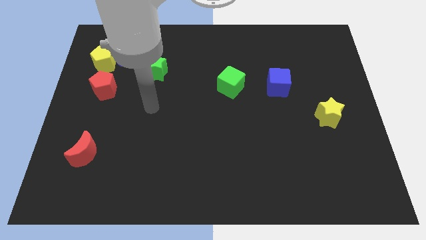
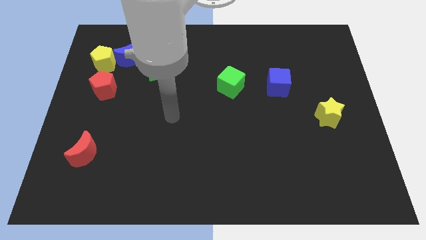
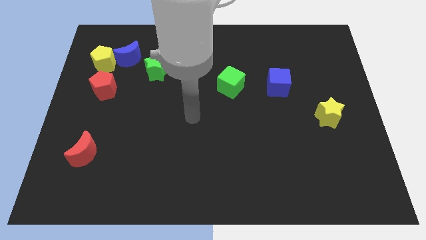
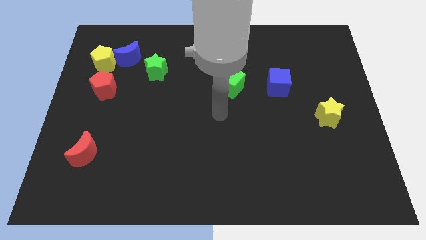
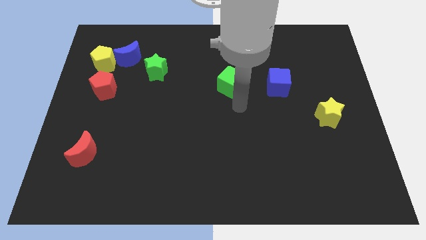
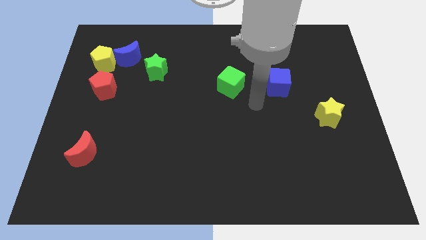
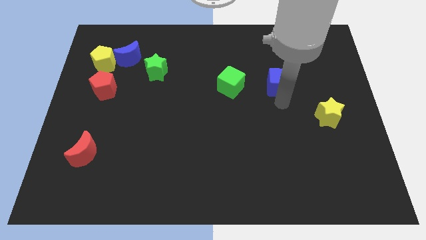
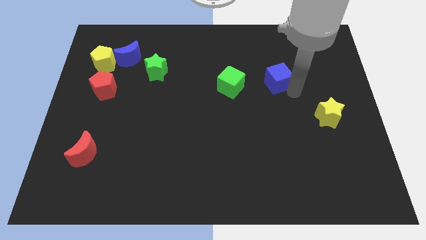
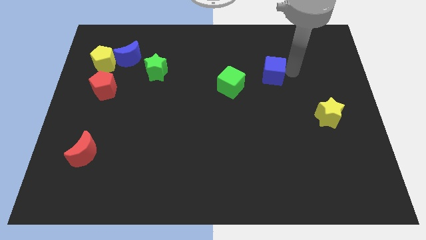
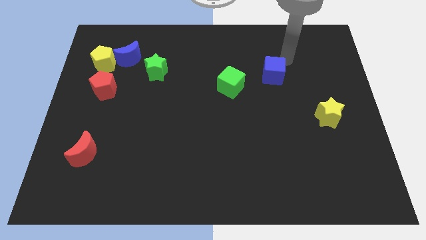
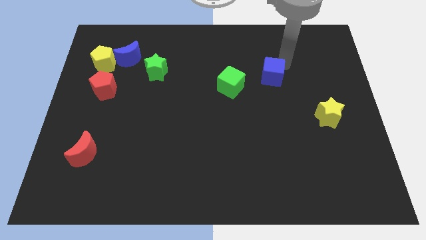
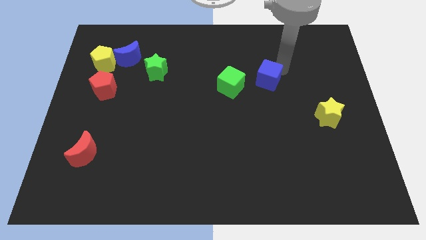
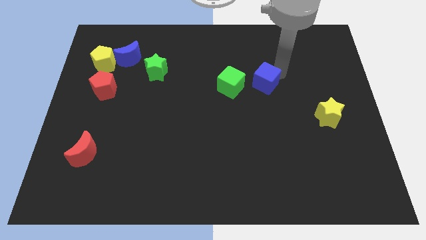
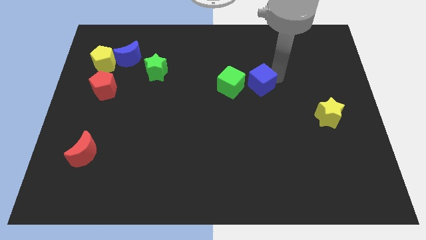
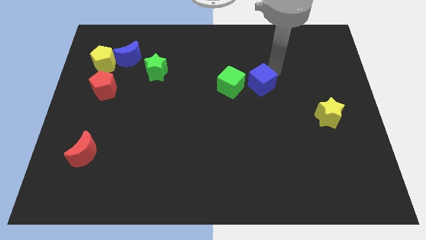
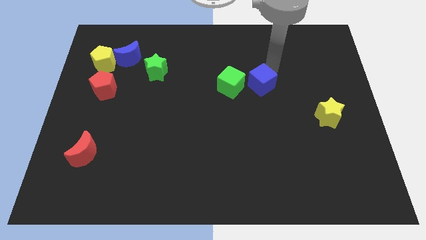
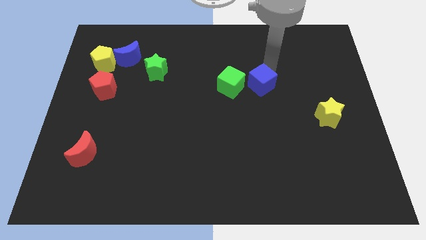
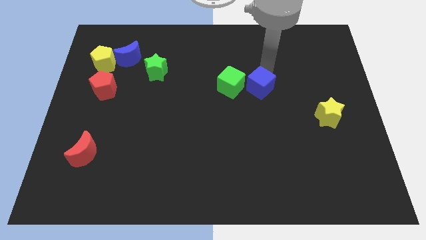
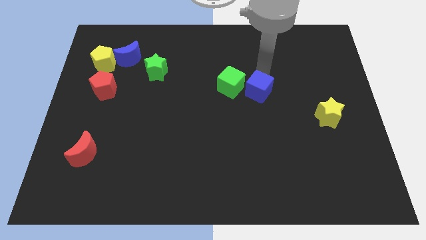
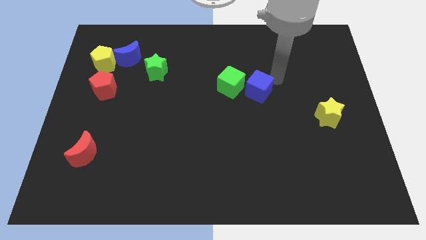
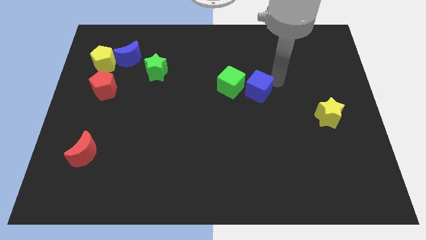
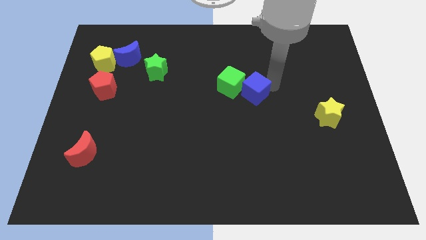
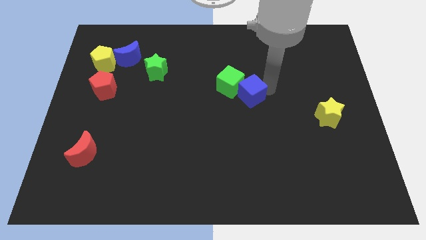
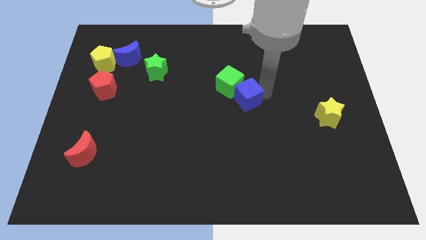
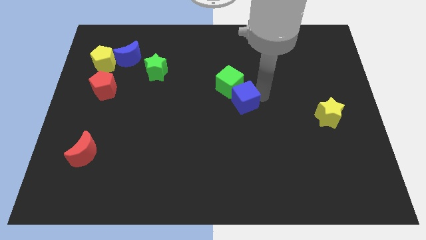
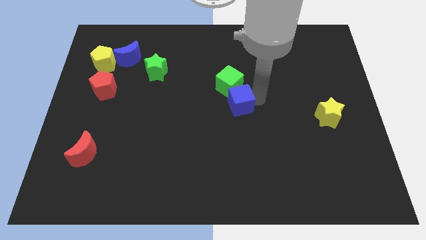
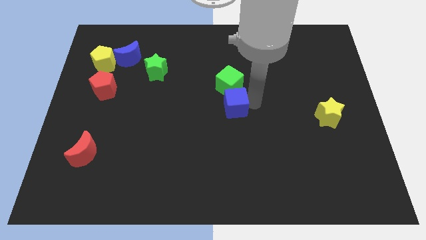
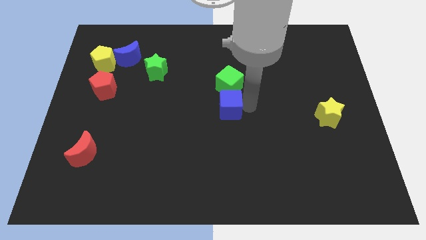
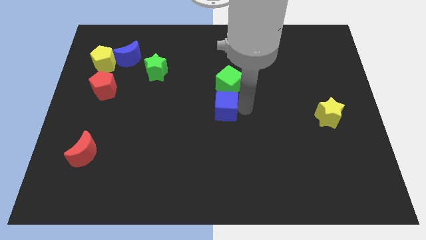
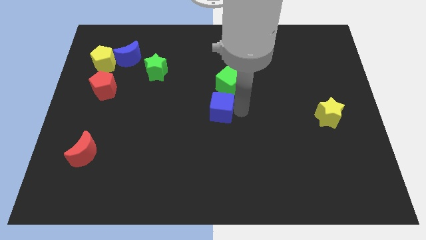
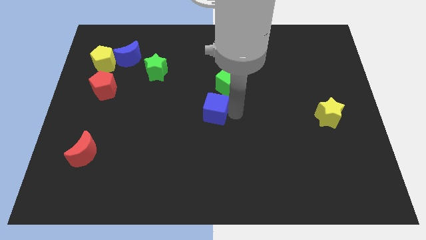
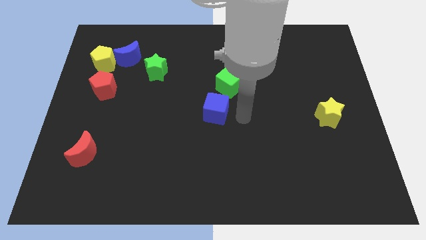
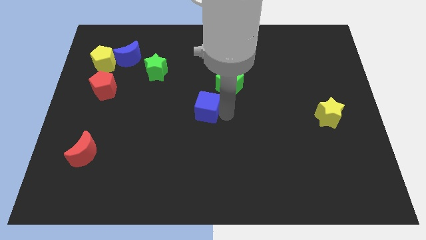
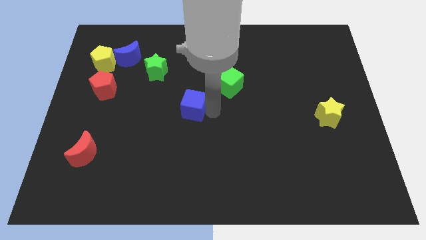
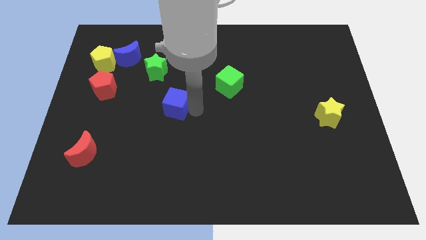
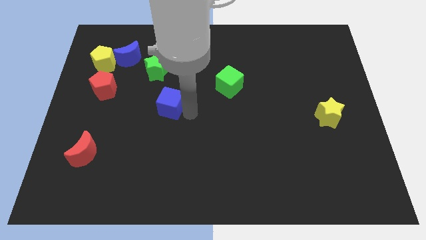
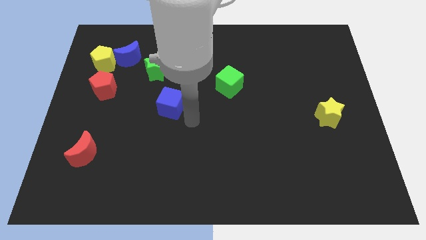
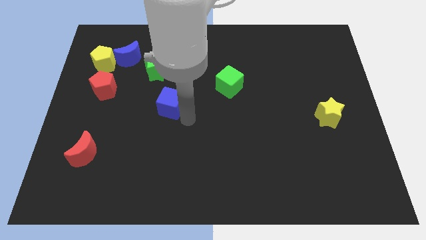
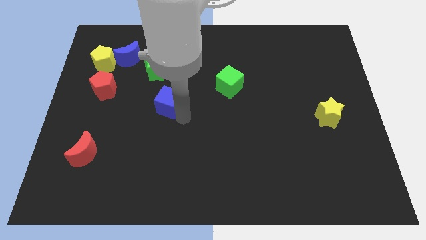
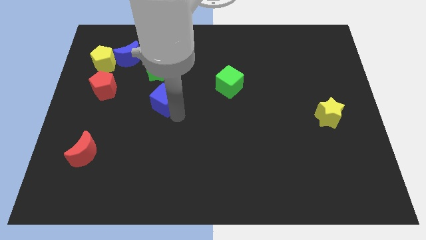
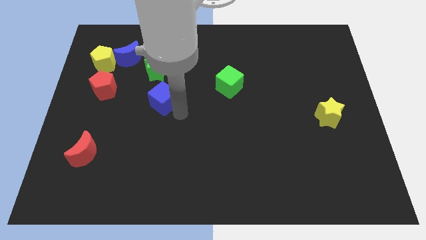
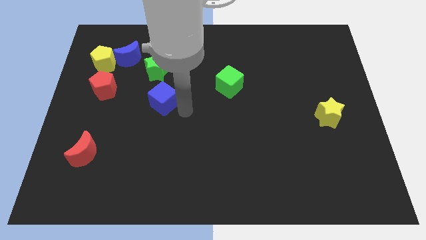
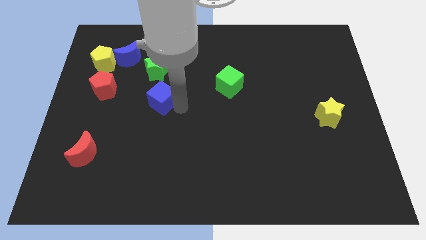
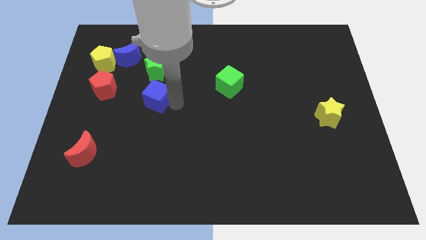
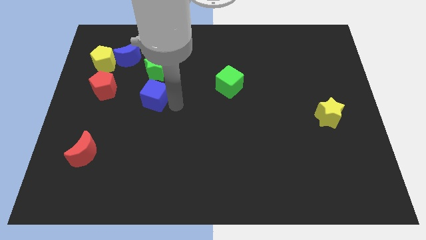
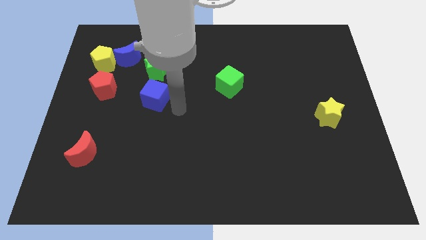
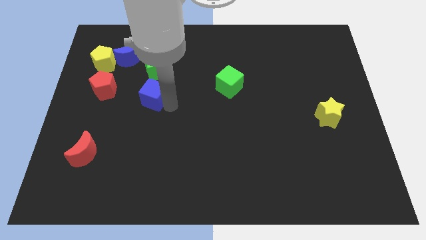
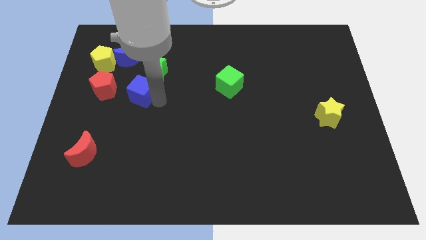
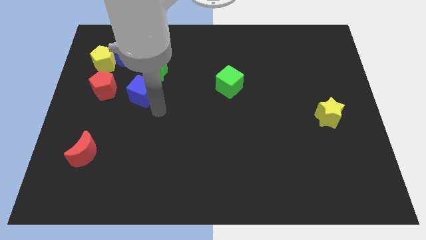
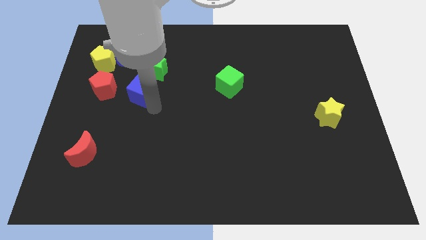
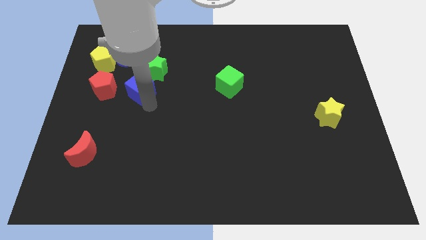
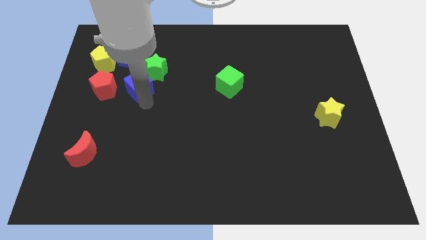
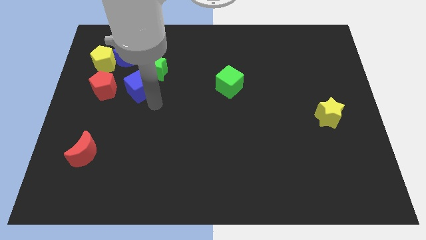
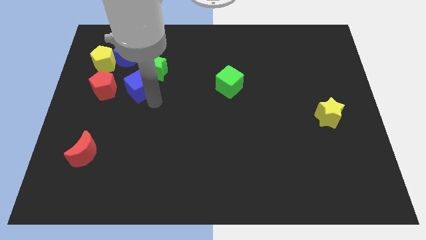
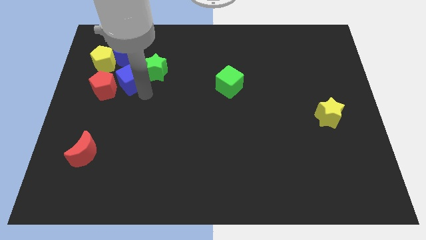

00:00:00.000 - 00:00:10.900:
slide the blue cube to the left of the green star

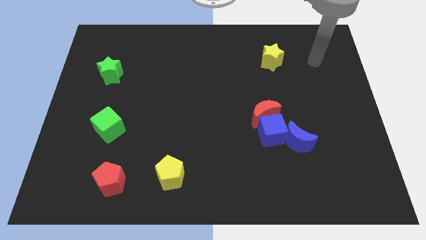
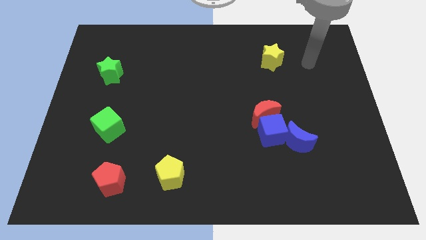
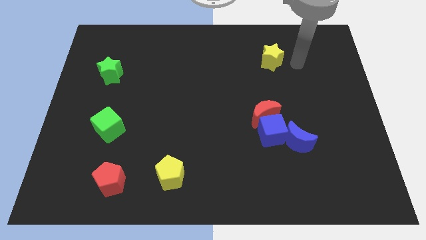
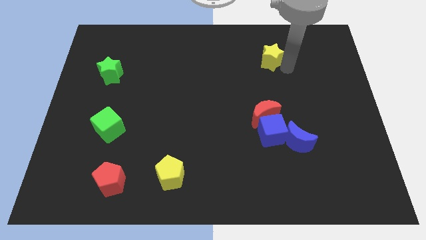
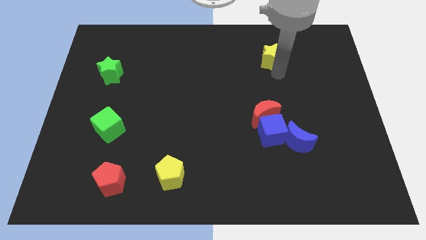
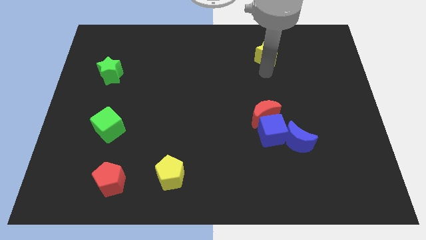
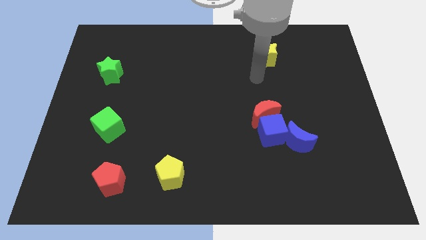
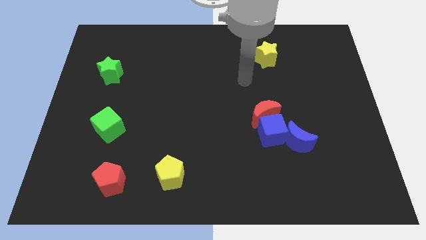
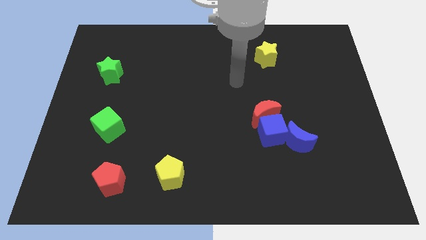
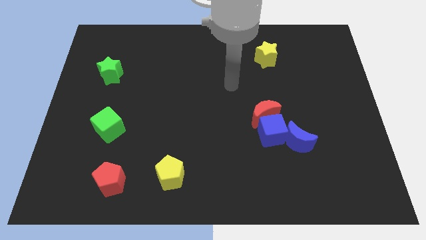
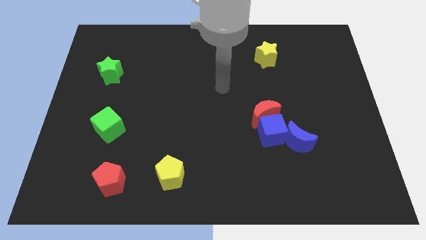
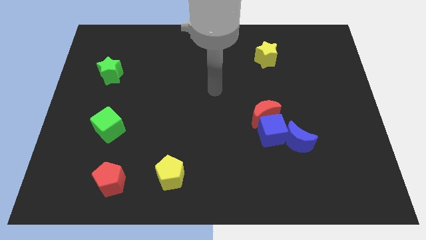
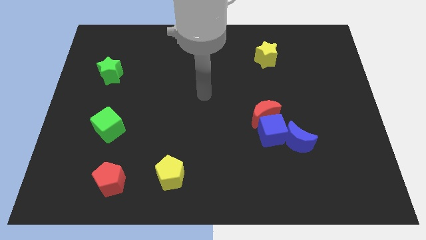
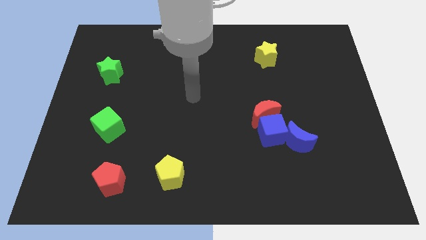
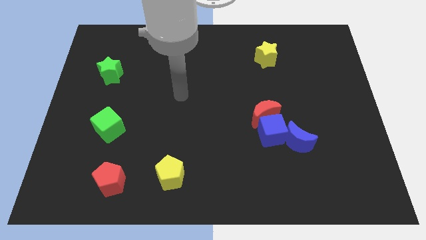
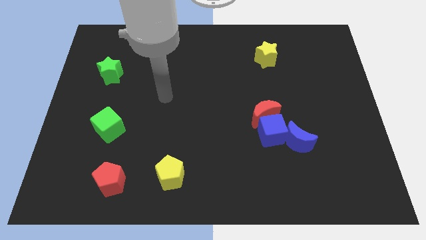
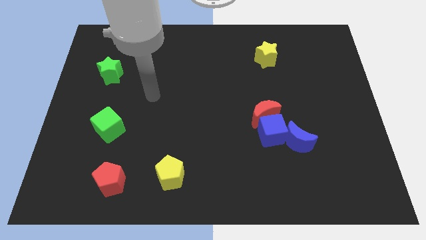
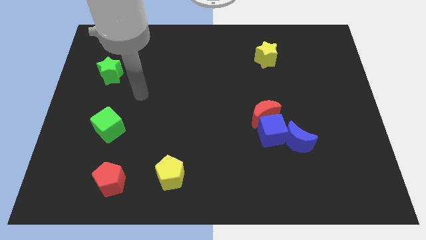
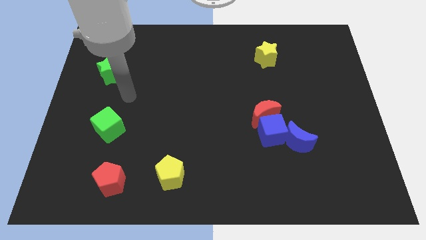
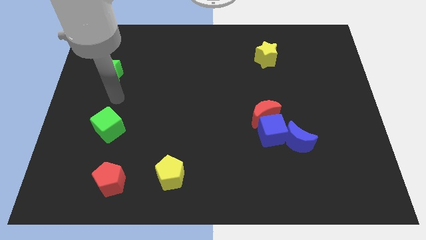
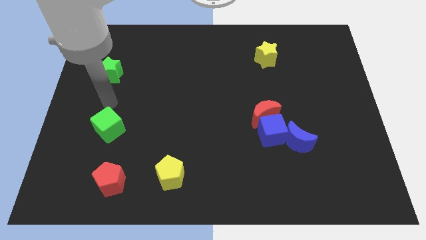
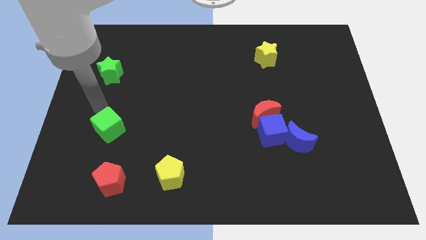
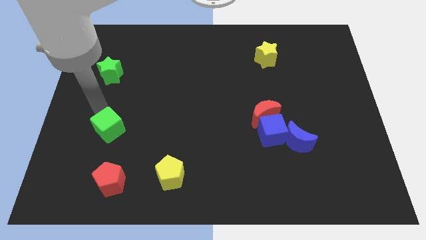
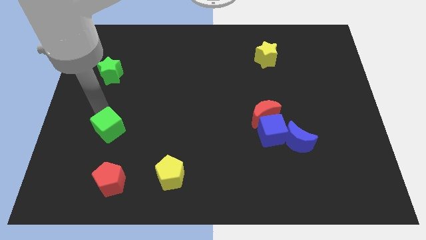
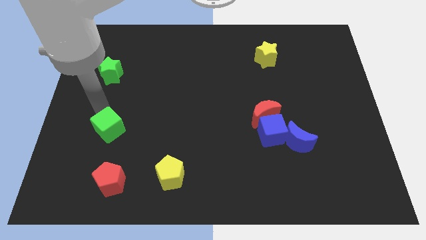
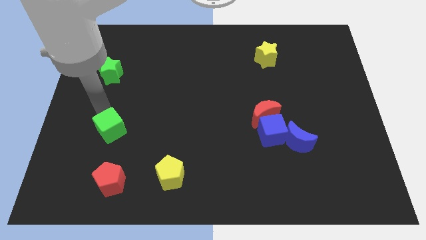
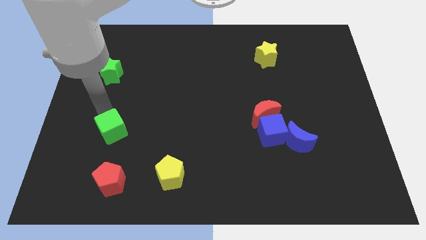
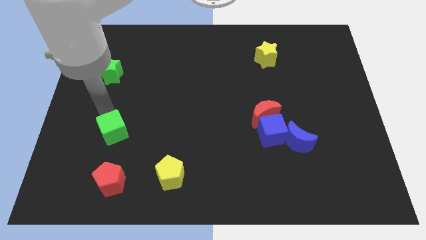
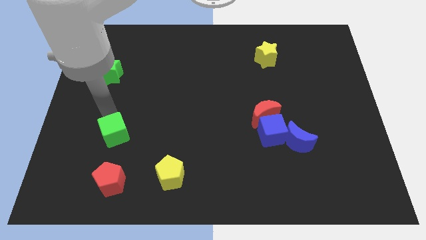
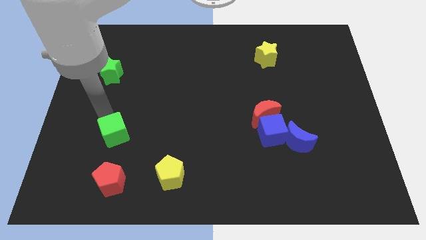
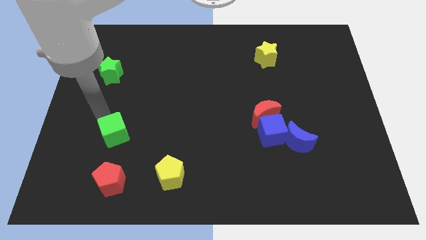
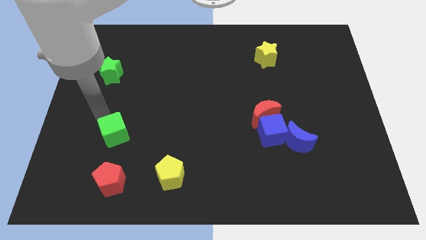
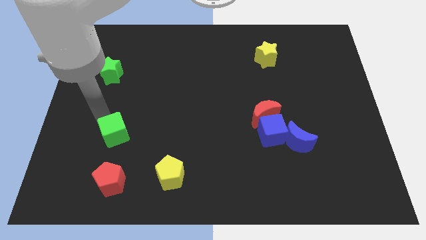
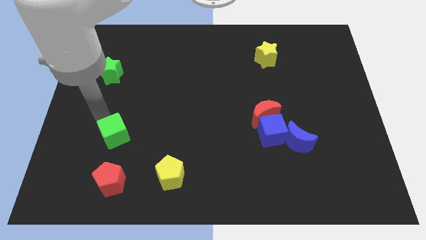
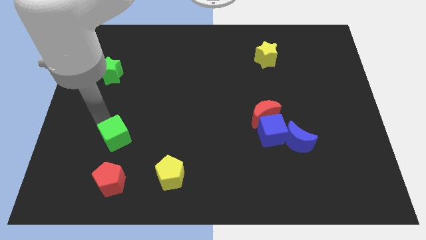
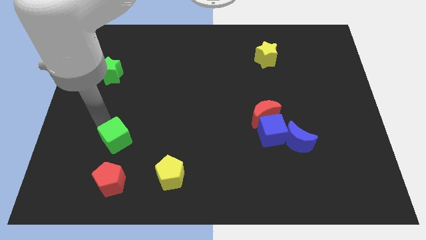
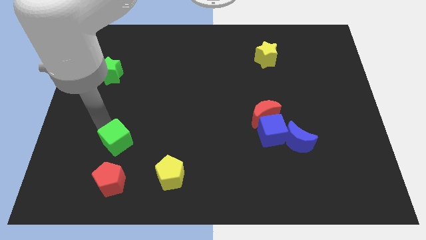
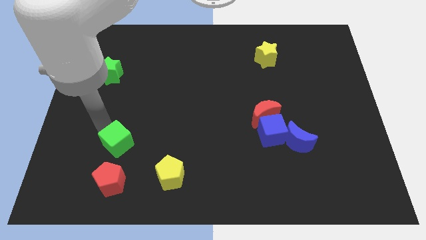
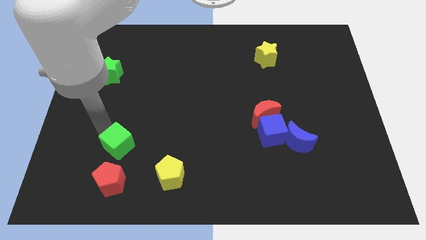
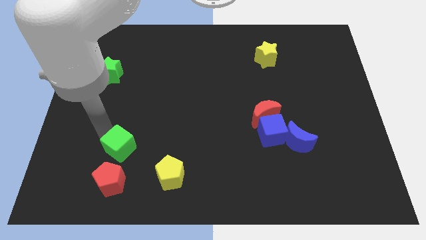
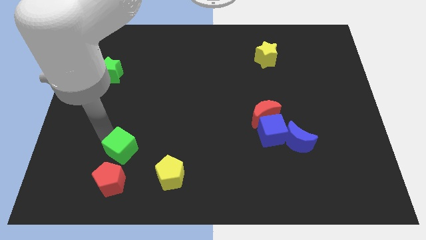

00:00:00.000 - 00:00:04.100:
move the green cube diagonally up and to the right of the red pentagon
